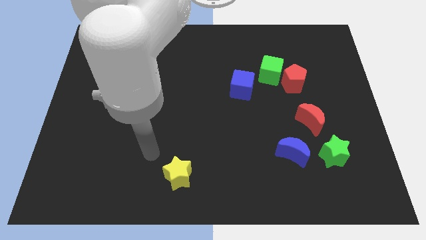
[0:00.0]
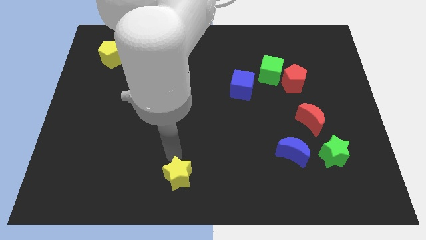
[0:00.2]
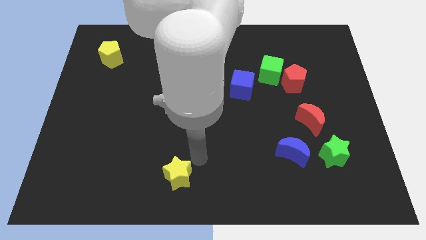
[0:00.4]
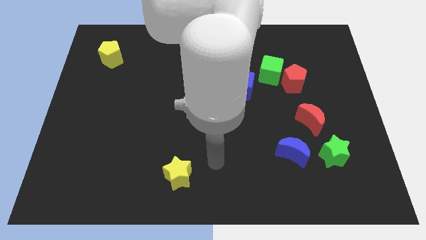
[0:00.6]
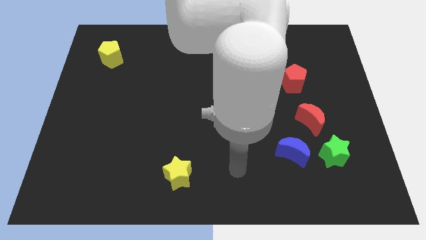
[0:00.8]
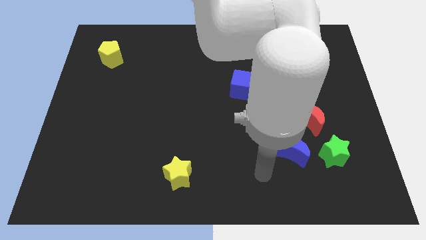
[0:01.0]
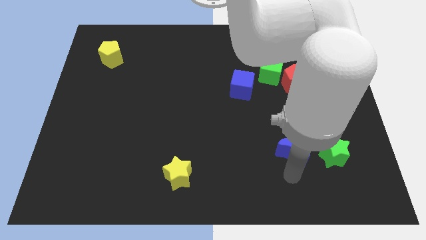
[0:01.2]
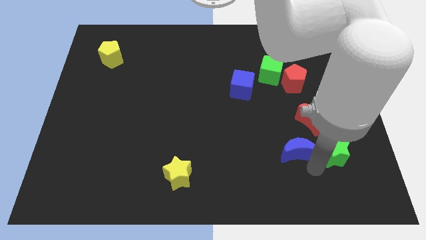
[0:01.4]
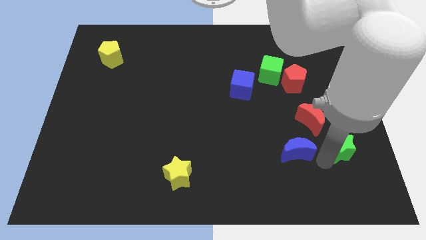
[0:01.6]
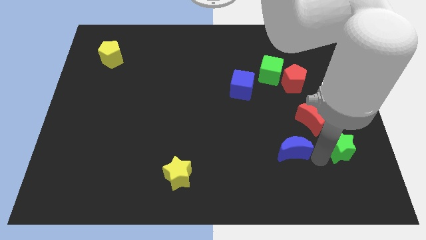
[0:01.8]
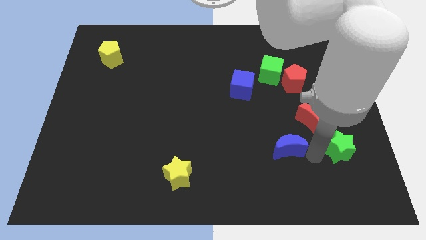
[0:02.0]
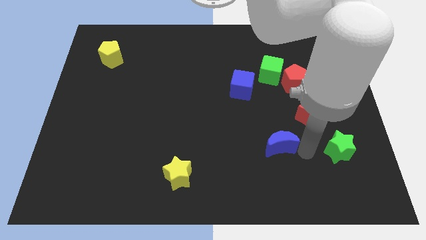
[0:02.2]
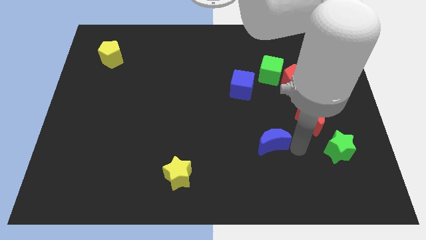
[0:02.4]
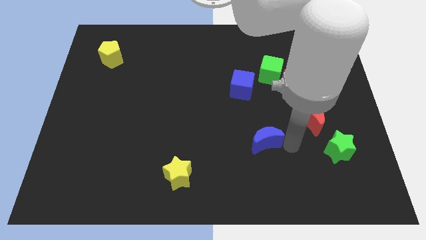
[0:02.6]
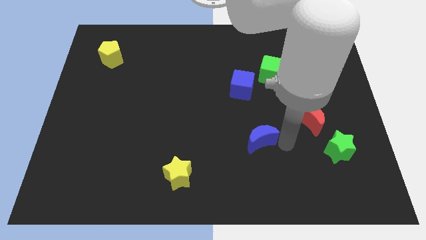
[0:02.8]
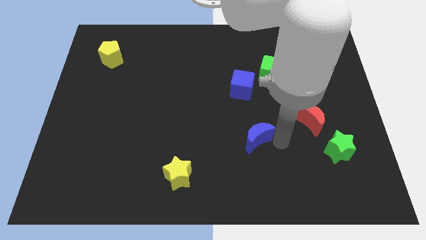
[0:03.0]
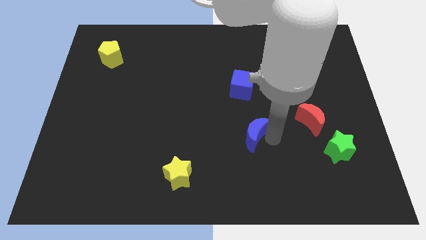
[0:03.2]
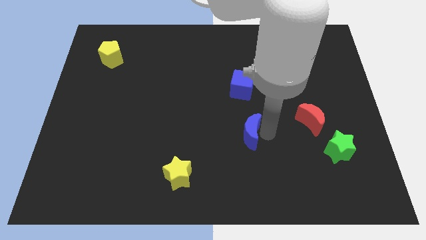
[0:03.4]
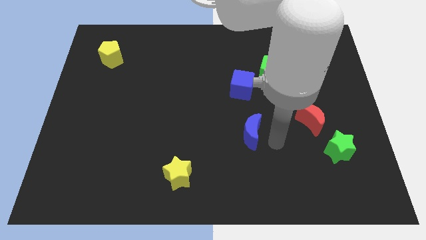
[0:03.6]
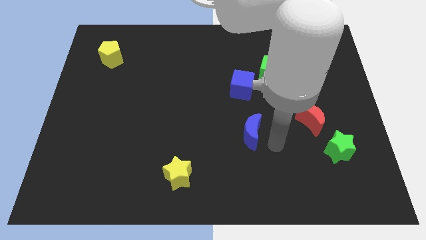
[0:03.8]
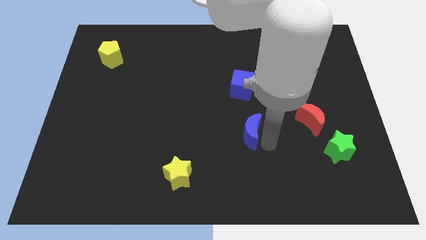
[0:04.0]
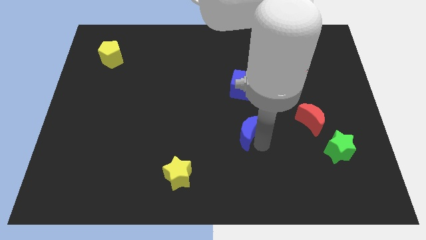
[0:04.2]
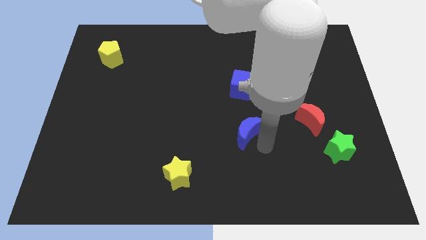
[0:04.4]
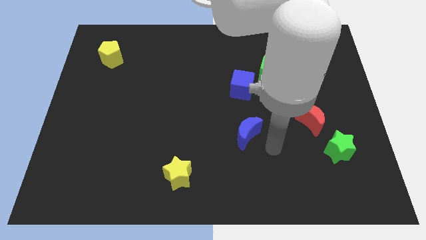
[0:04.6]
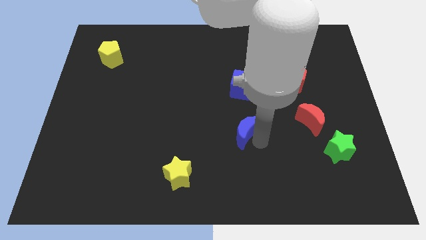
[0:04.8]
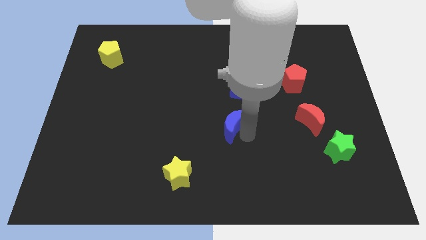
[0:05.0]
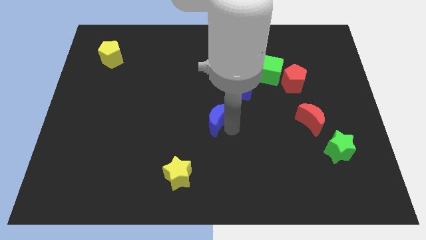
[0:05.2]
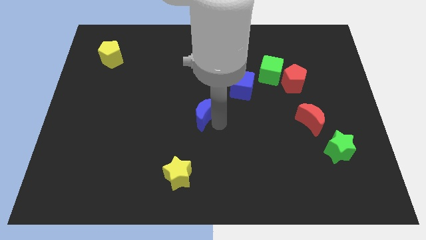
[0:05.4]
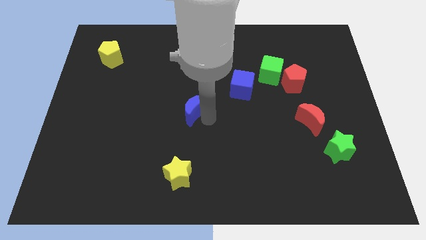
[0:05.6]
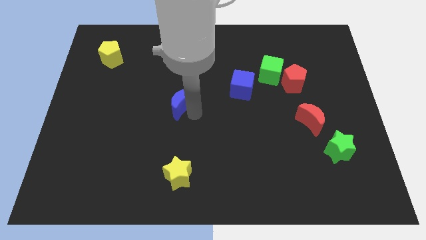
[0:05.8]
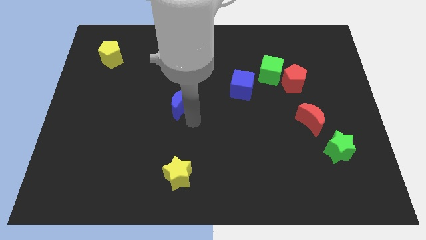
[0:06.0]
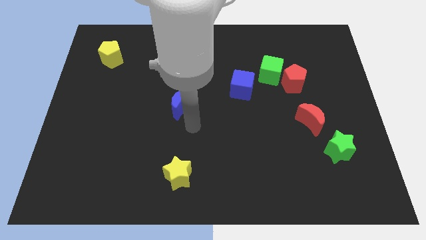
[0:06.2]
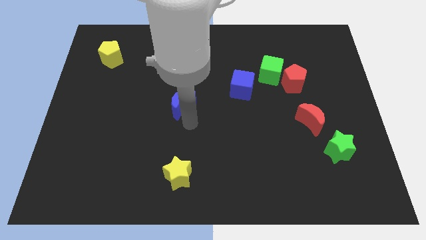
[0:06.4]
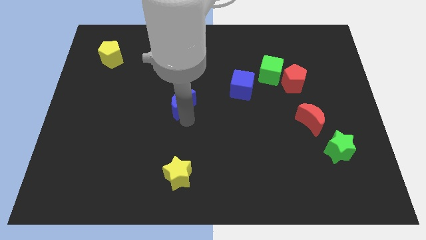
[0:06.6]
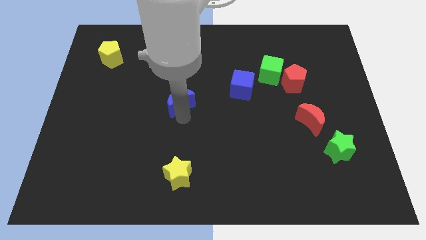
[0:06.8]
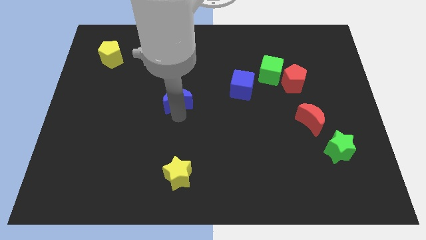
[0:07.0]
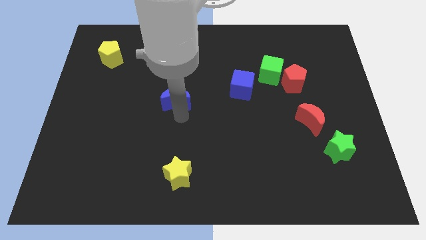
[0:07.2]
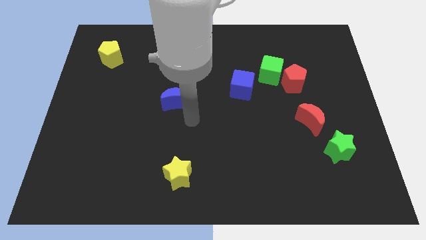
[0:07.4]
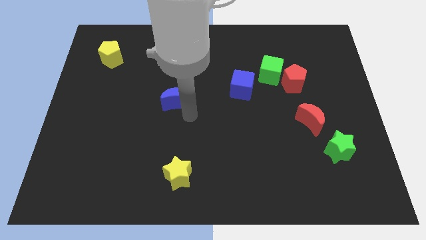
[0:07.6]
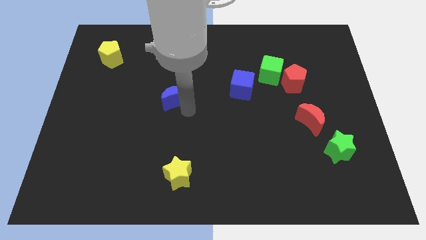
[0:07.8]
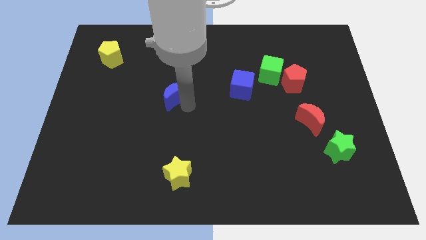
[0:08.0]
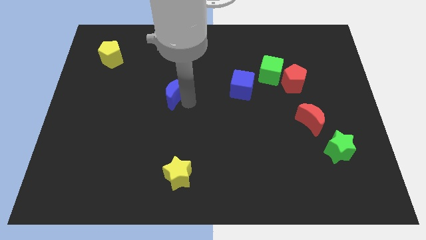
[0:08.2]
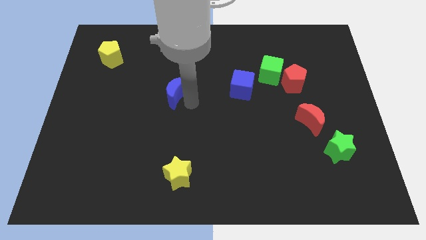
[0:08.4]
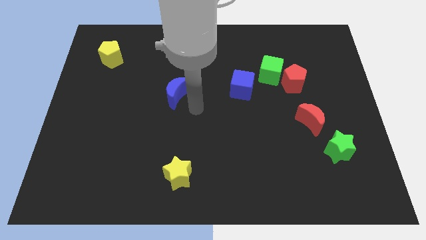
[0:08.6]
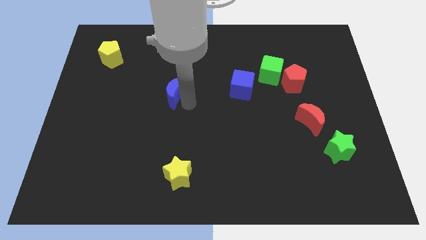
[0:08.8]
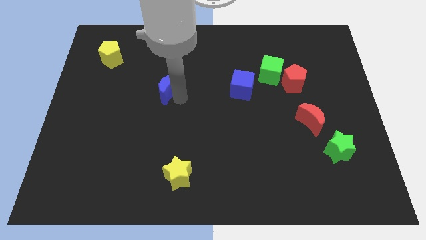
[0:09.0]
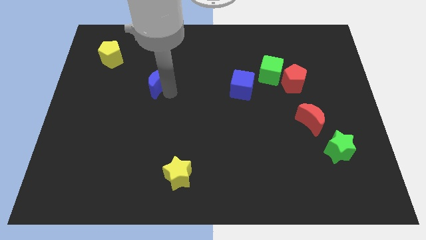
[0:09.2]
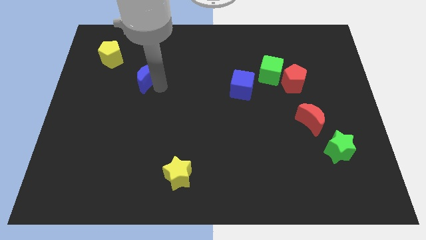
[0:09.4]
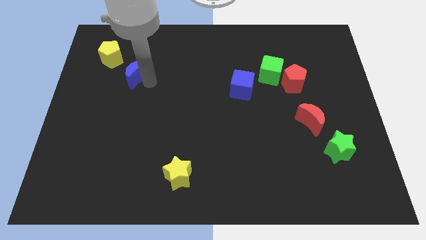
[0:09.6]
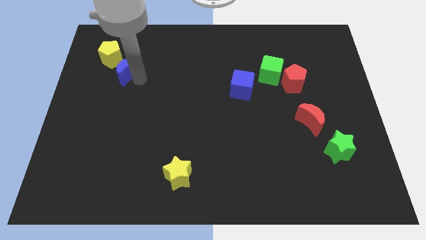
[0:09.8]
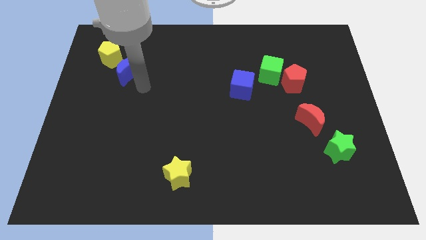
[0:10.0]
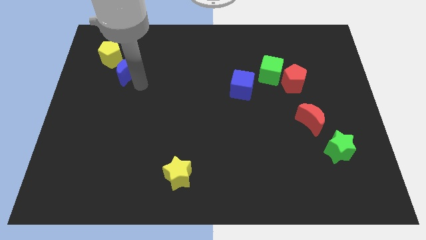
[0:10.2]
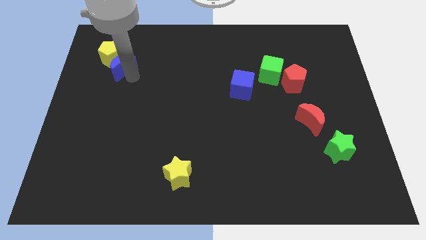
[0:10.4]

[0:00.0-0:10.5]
push the blue moon next to the yellow pentagon

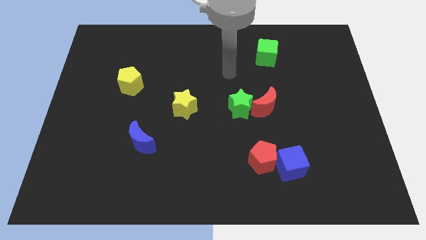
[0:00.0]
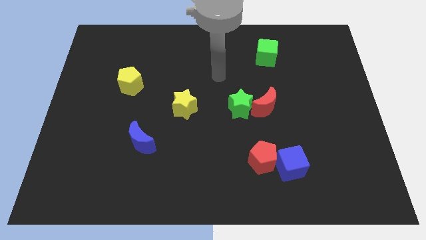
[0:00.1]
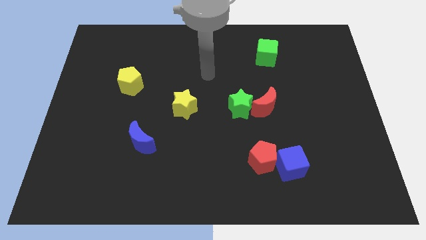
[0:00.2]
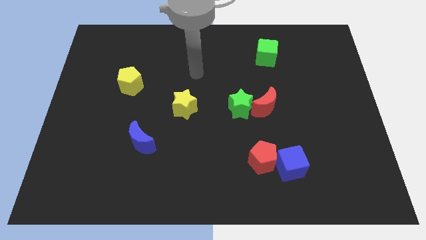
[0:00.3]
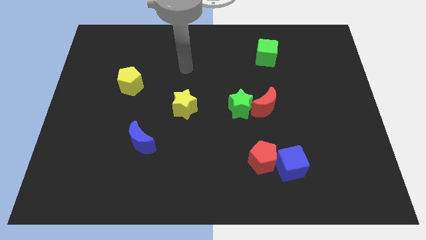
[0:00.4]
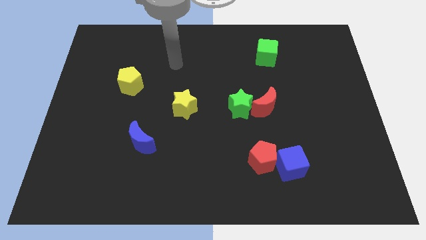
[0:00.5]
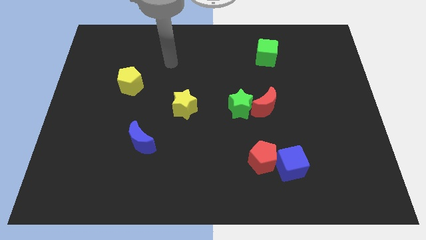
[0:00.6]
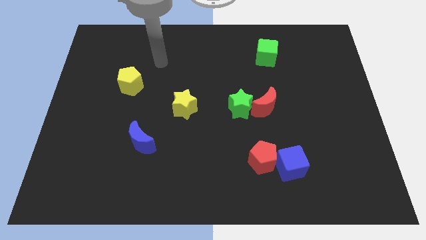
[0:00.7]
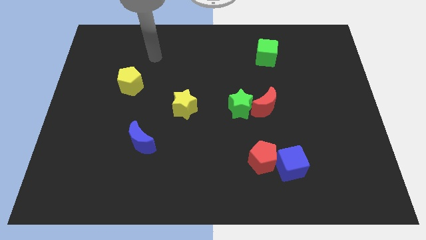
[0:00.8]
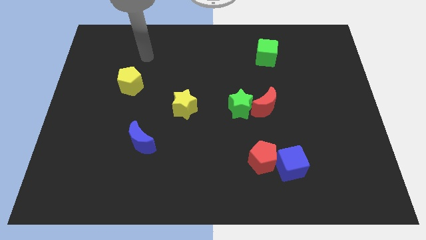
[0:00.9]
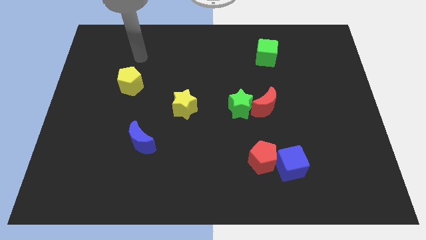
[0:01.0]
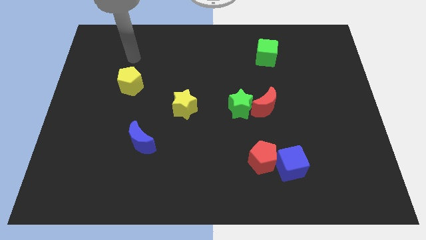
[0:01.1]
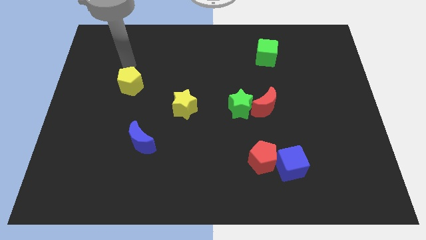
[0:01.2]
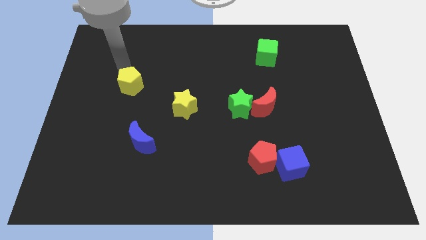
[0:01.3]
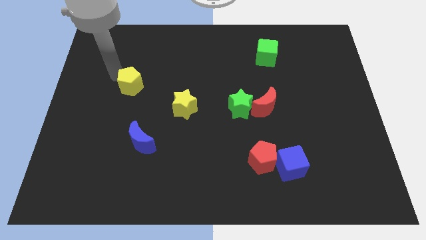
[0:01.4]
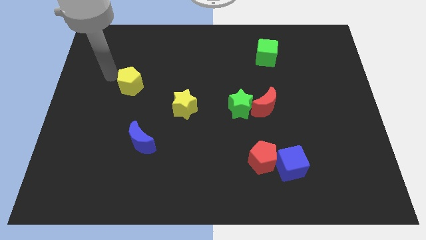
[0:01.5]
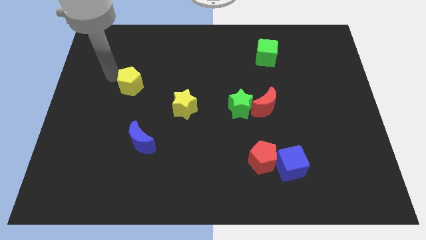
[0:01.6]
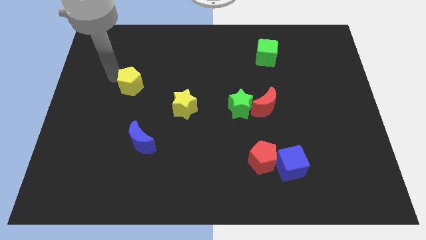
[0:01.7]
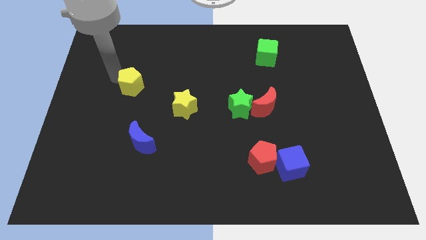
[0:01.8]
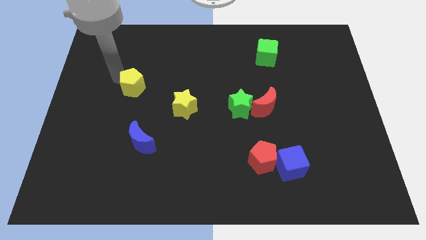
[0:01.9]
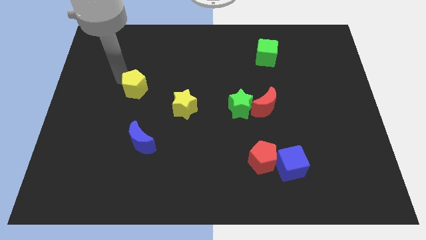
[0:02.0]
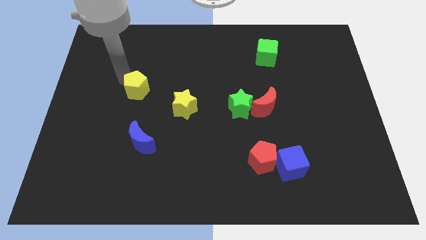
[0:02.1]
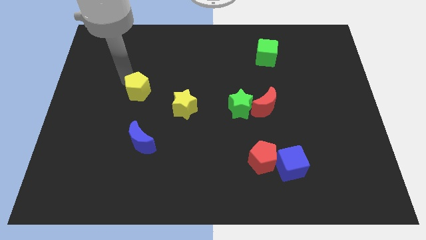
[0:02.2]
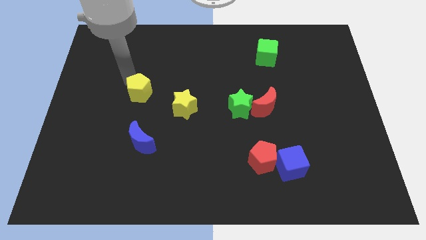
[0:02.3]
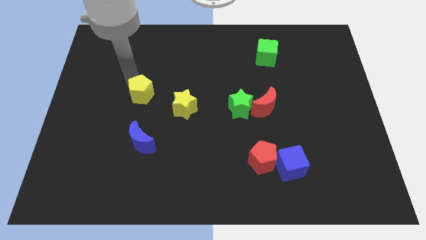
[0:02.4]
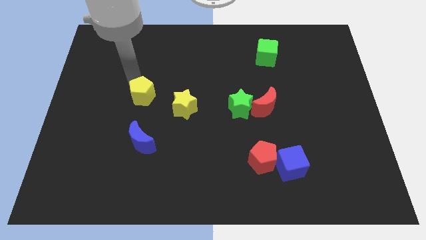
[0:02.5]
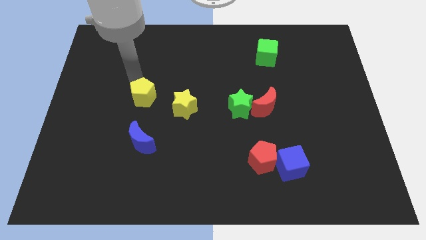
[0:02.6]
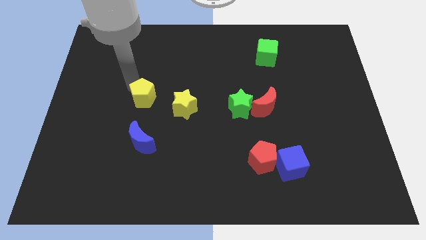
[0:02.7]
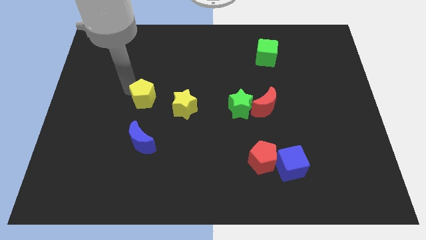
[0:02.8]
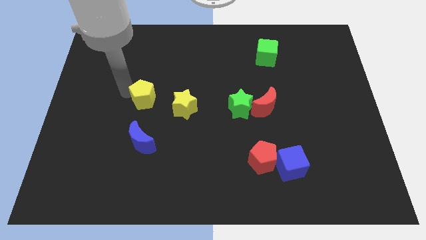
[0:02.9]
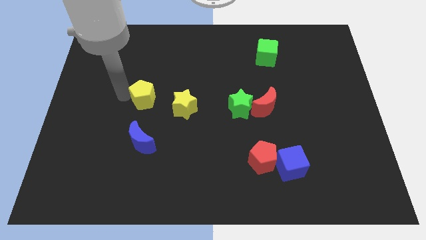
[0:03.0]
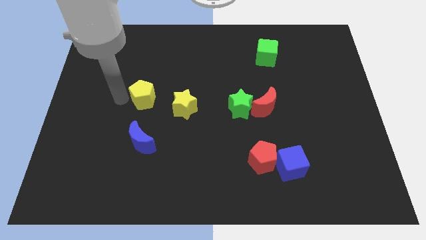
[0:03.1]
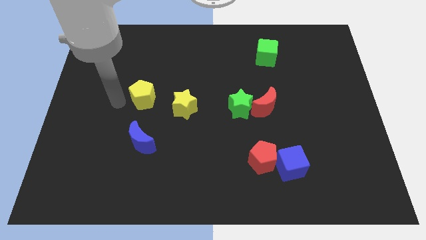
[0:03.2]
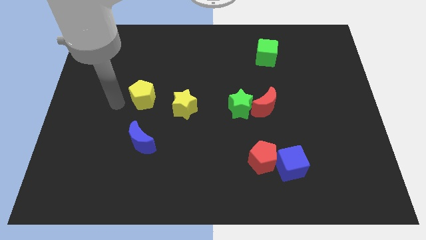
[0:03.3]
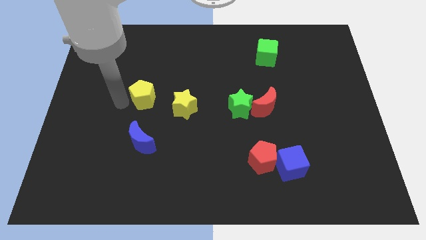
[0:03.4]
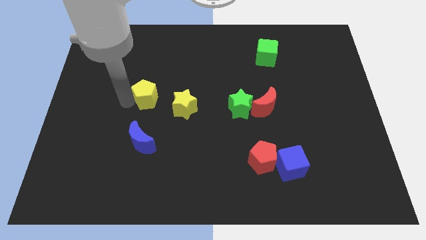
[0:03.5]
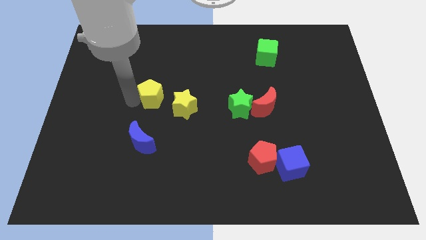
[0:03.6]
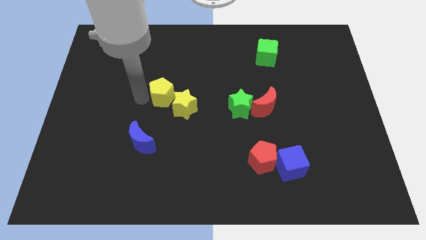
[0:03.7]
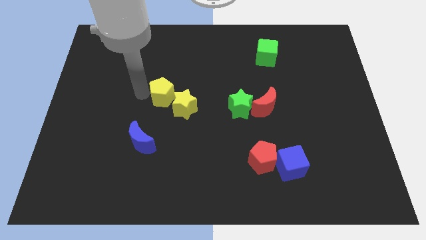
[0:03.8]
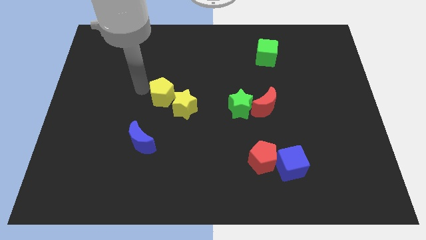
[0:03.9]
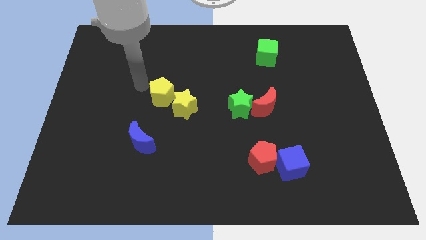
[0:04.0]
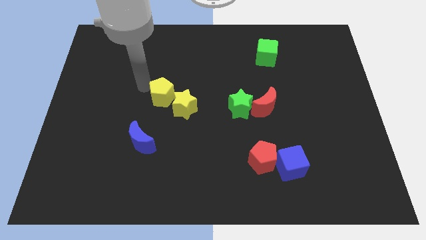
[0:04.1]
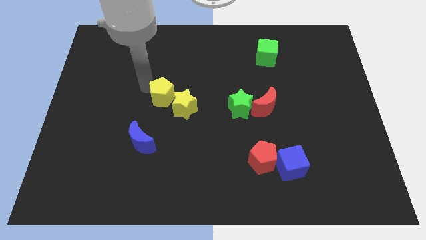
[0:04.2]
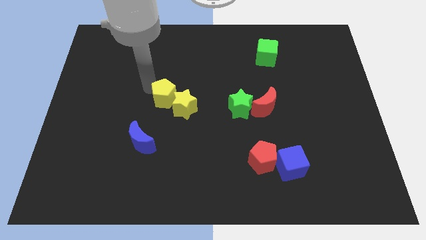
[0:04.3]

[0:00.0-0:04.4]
move the yellow pentagon to the yellow star
